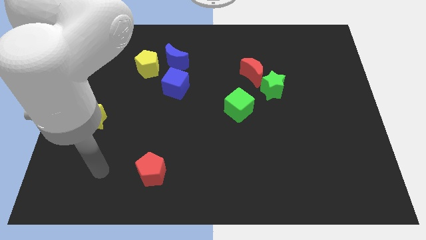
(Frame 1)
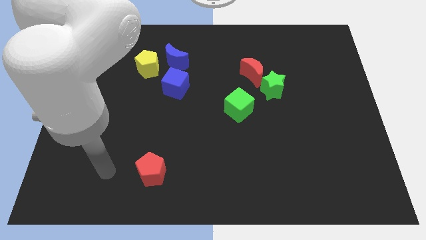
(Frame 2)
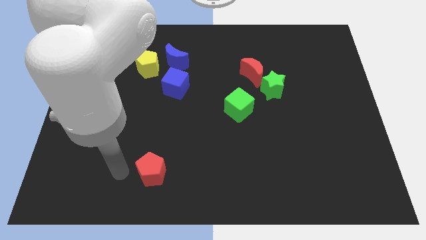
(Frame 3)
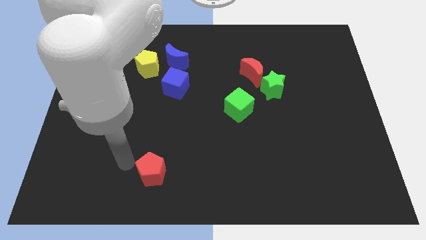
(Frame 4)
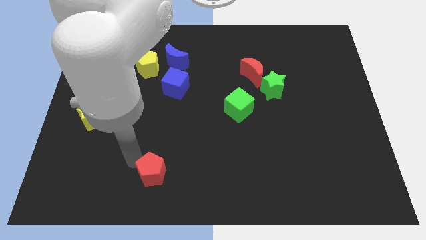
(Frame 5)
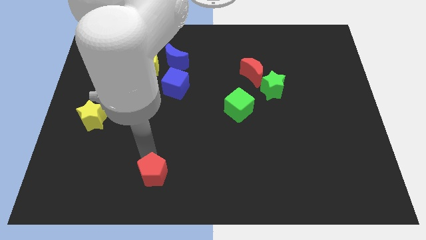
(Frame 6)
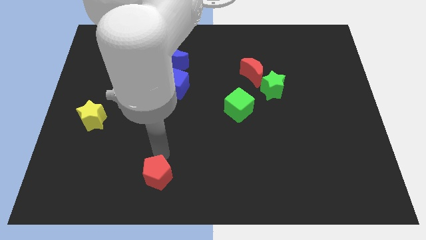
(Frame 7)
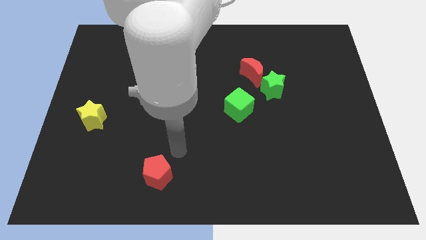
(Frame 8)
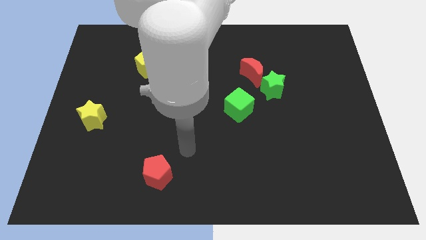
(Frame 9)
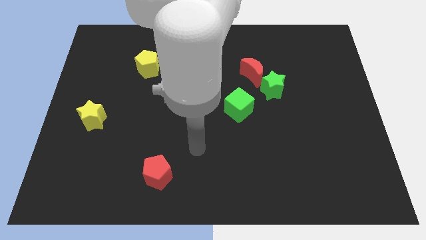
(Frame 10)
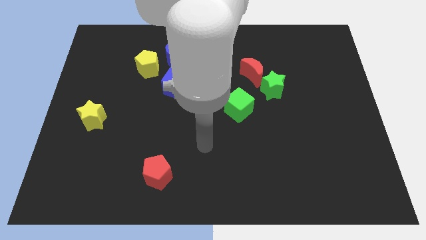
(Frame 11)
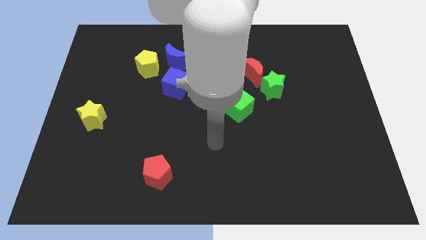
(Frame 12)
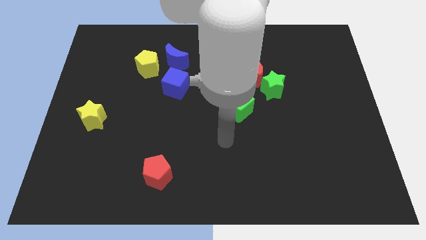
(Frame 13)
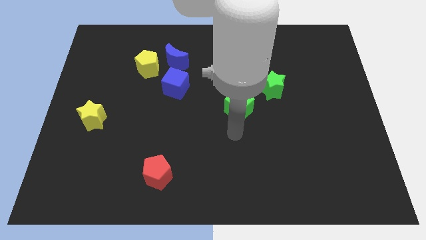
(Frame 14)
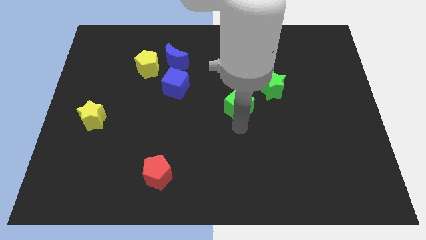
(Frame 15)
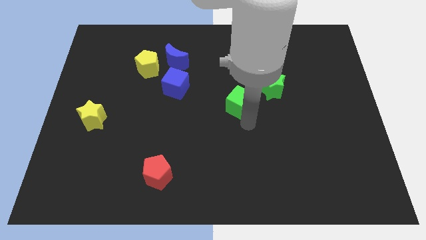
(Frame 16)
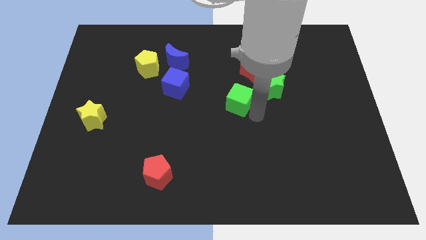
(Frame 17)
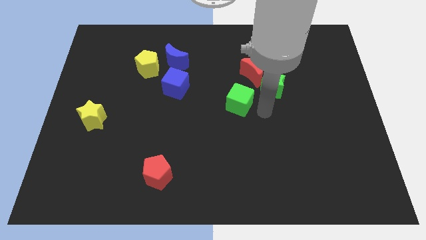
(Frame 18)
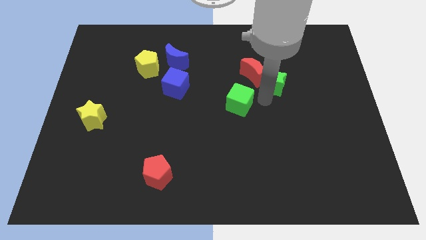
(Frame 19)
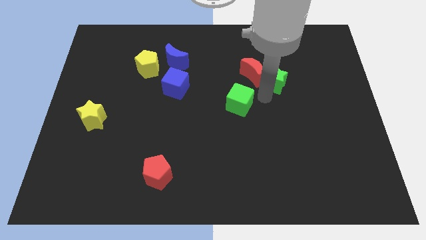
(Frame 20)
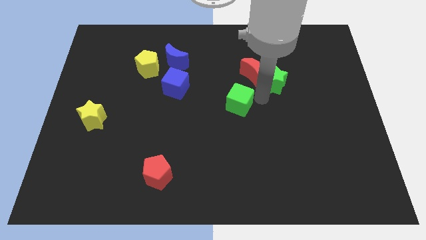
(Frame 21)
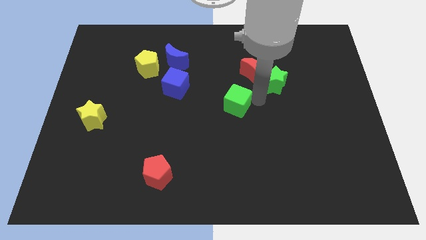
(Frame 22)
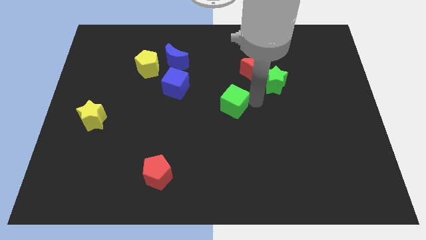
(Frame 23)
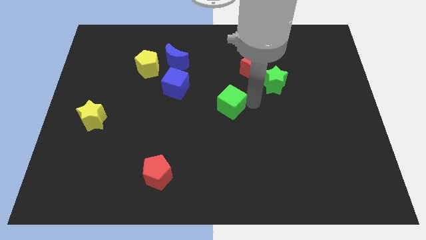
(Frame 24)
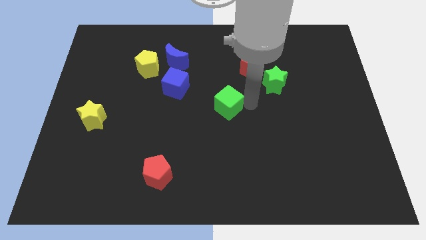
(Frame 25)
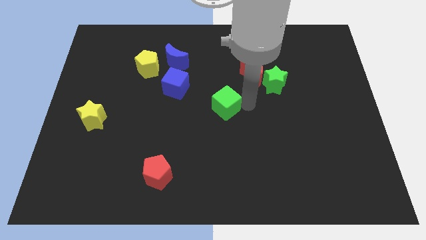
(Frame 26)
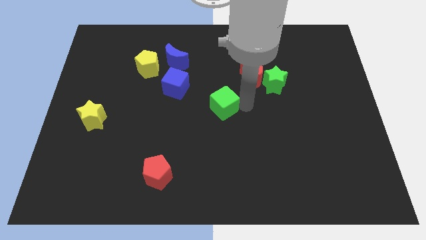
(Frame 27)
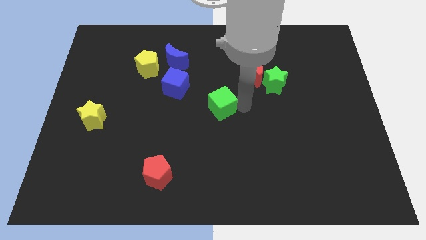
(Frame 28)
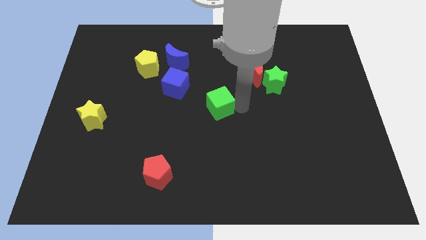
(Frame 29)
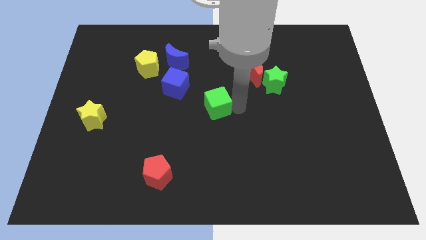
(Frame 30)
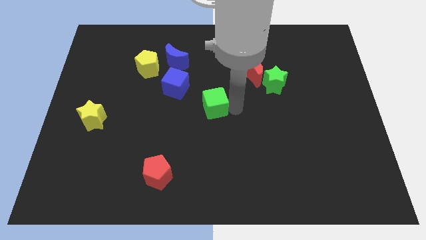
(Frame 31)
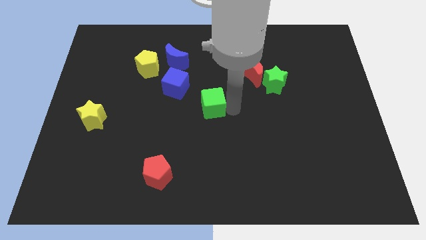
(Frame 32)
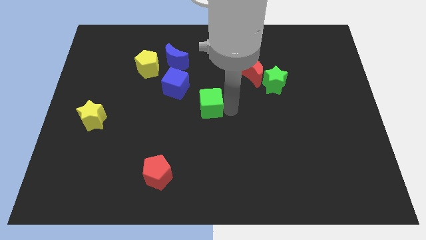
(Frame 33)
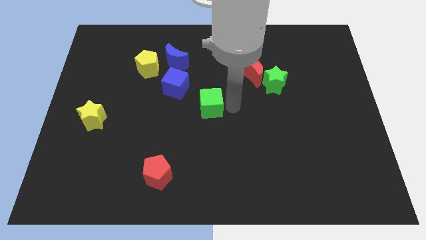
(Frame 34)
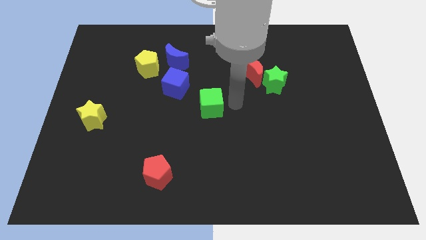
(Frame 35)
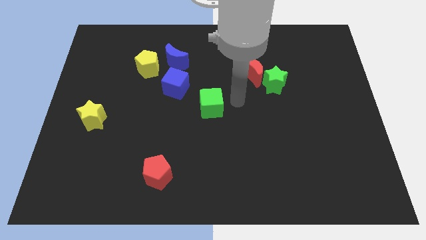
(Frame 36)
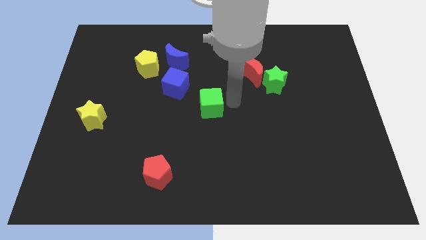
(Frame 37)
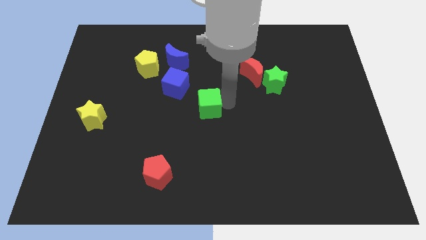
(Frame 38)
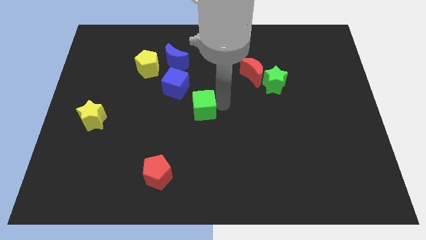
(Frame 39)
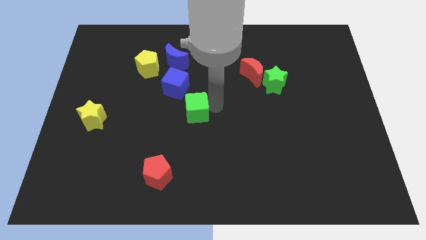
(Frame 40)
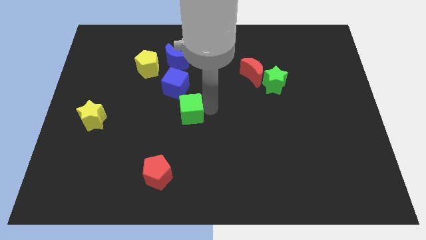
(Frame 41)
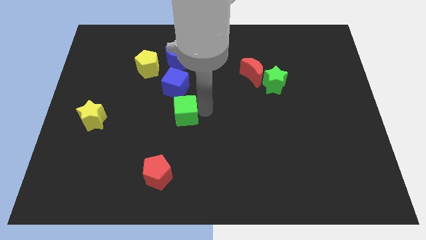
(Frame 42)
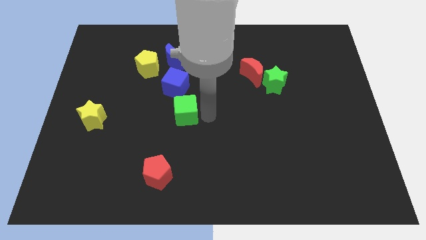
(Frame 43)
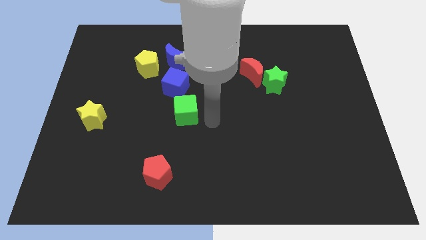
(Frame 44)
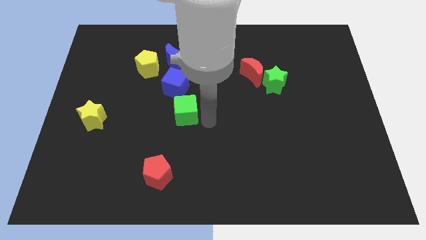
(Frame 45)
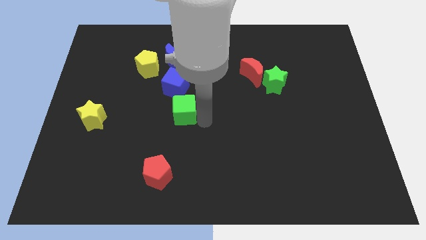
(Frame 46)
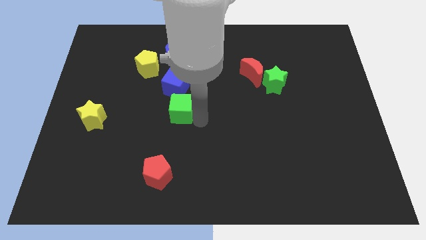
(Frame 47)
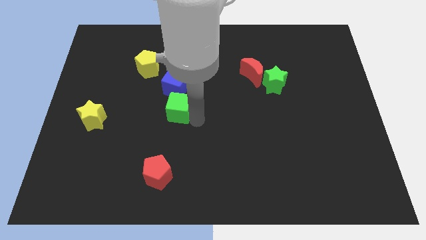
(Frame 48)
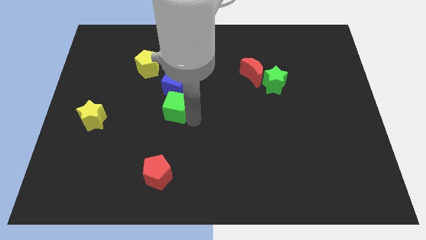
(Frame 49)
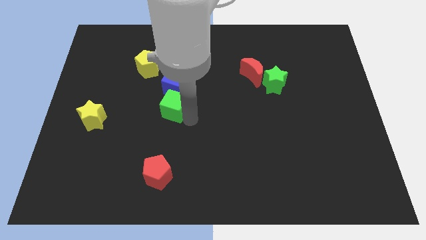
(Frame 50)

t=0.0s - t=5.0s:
push the green cube diagonally down and to the left of the blue cube

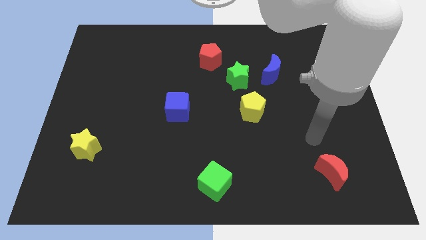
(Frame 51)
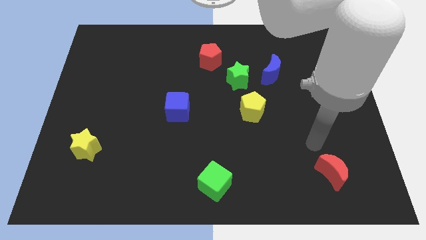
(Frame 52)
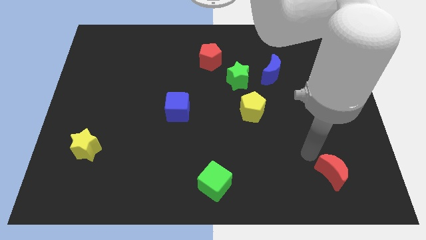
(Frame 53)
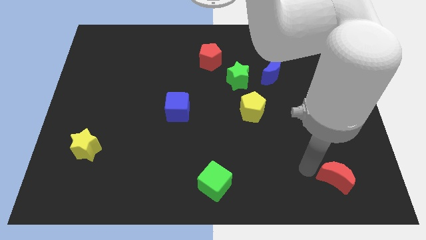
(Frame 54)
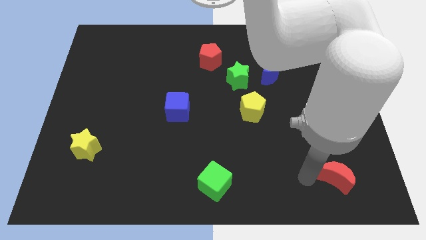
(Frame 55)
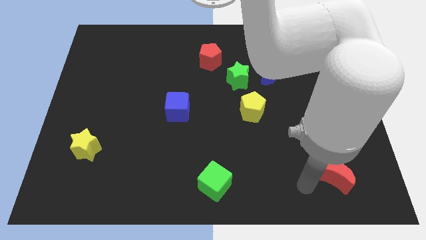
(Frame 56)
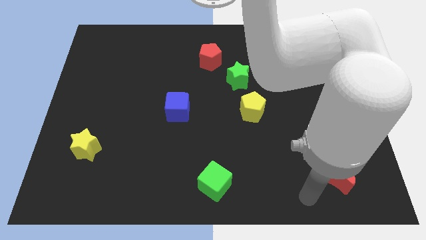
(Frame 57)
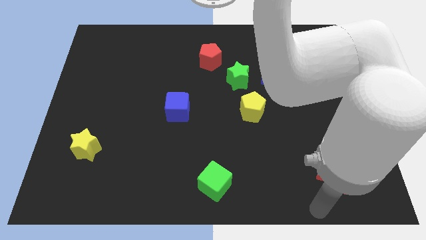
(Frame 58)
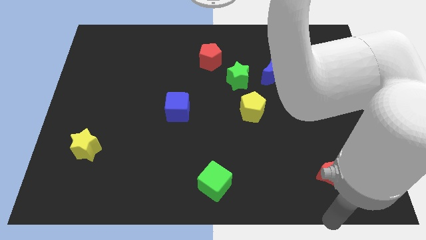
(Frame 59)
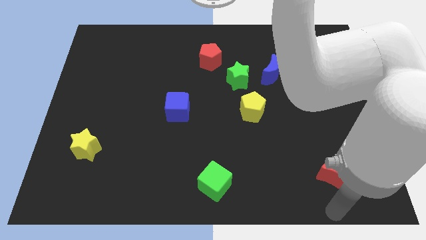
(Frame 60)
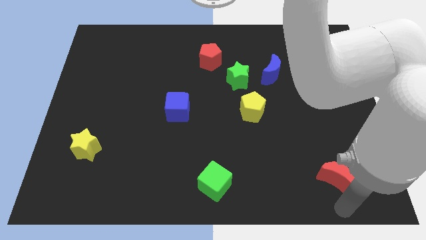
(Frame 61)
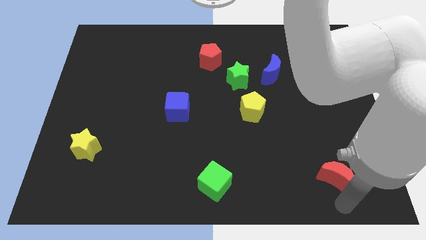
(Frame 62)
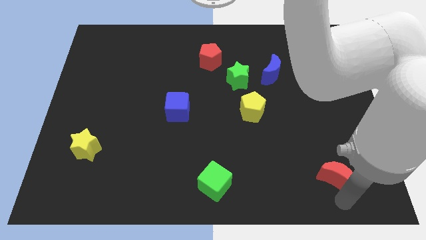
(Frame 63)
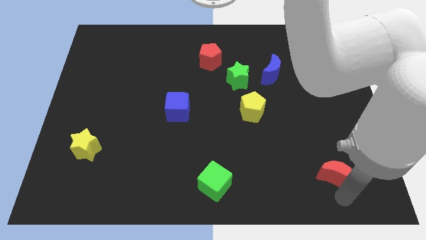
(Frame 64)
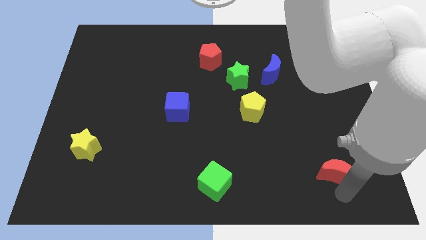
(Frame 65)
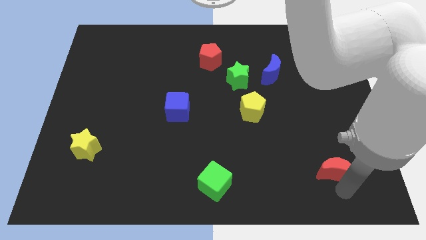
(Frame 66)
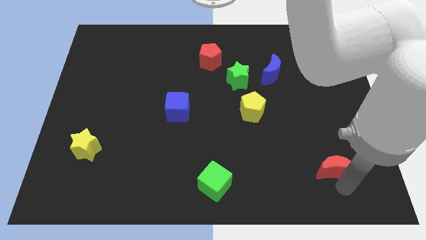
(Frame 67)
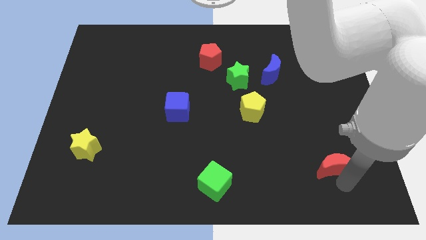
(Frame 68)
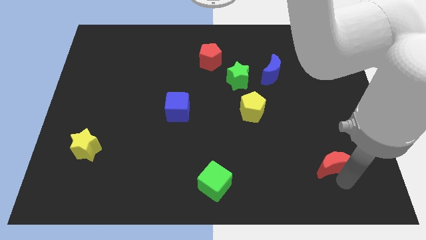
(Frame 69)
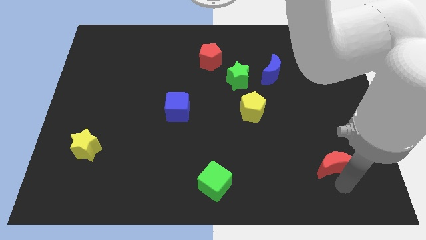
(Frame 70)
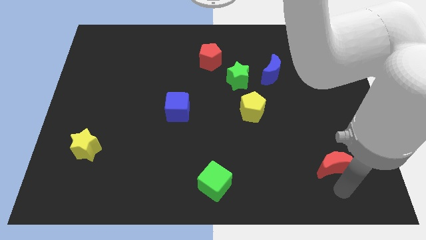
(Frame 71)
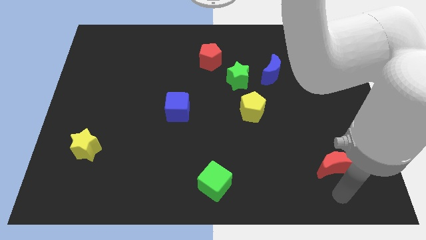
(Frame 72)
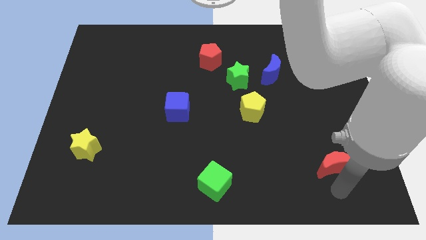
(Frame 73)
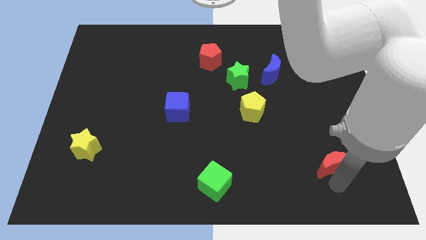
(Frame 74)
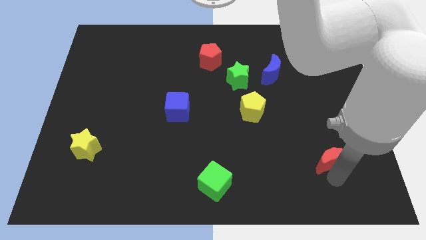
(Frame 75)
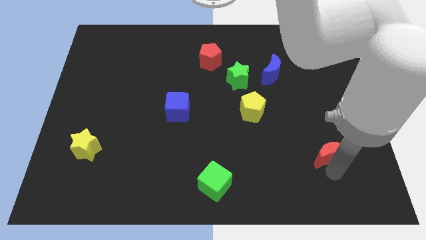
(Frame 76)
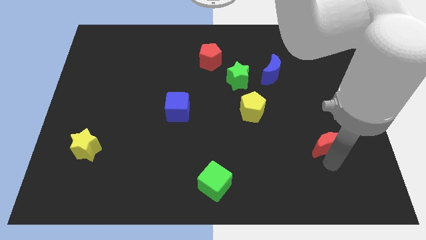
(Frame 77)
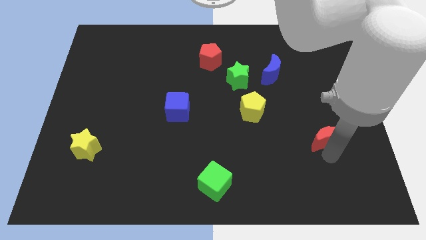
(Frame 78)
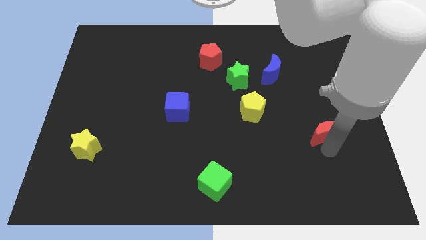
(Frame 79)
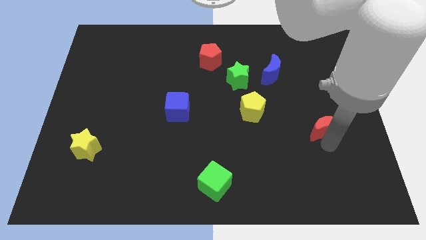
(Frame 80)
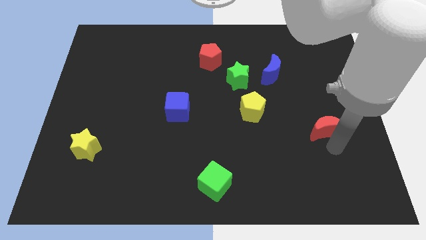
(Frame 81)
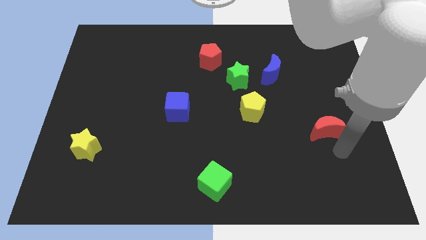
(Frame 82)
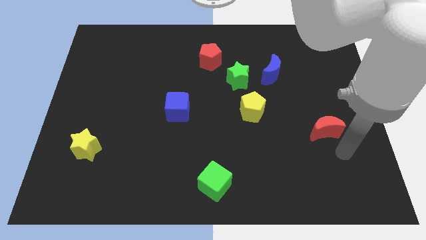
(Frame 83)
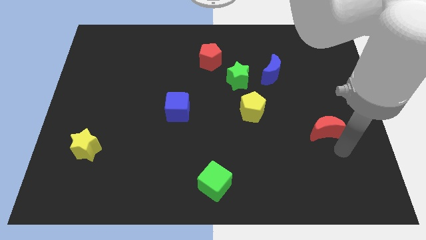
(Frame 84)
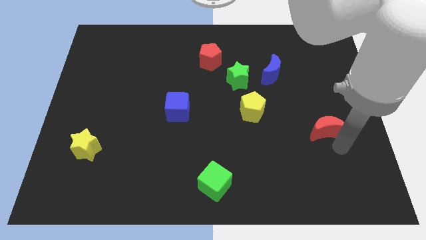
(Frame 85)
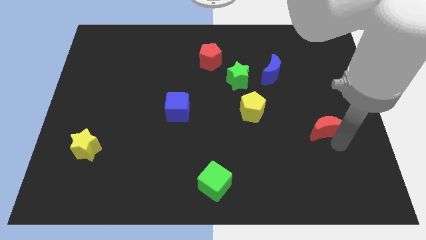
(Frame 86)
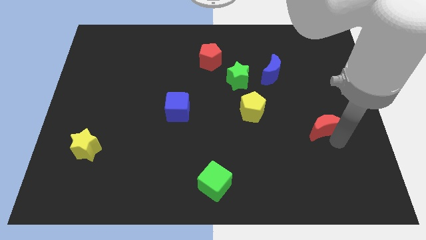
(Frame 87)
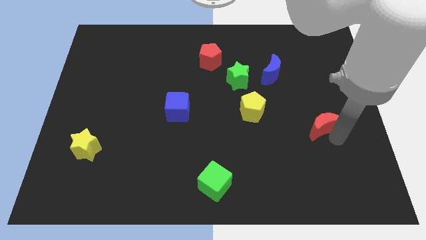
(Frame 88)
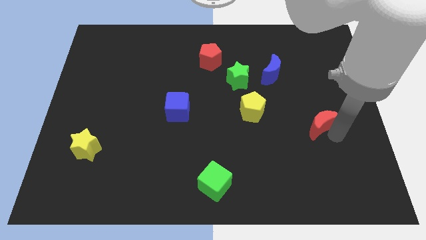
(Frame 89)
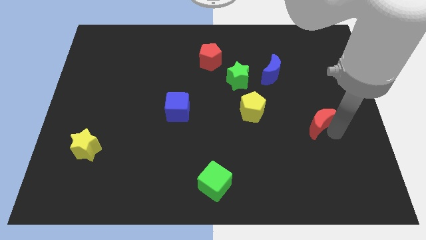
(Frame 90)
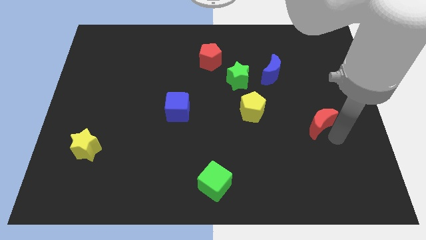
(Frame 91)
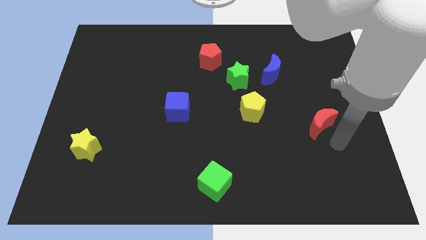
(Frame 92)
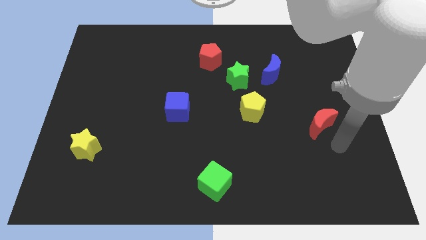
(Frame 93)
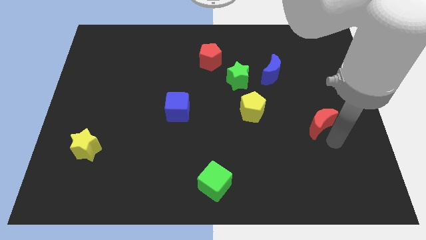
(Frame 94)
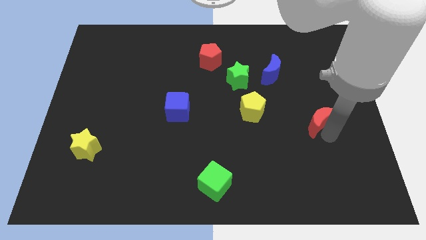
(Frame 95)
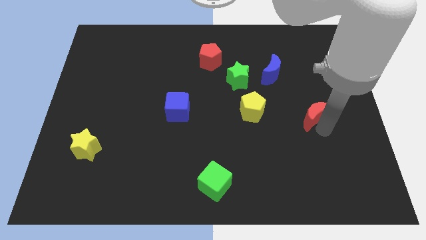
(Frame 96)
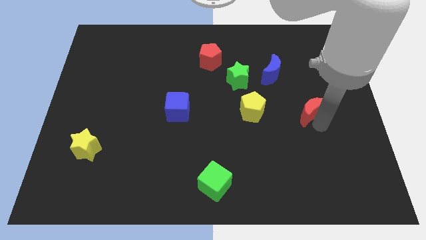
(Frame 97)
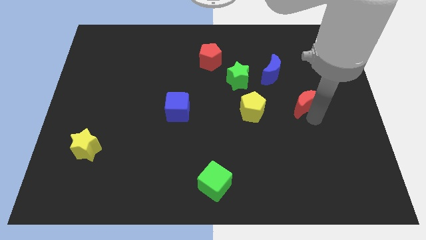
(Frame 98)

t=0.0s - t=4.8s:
move the red moon diagonally down and to the right of the blue moon
